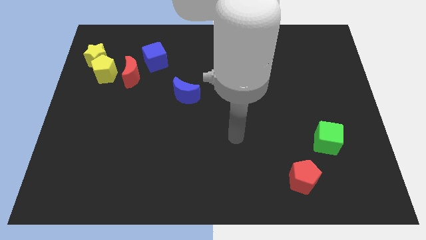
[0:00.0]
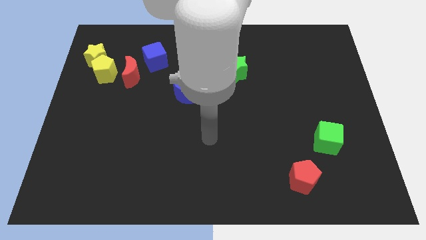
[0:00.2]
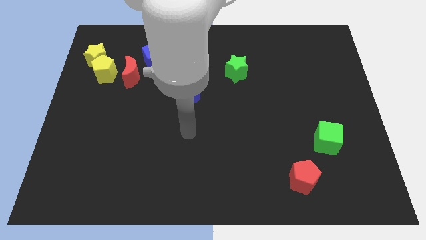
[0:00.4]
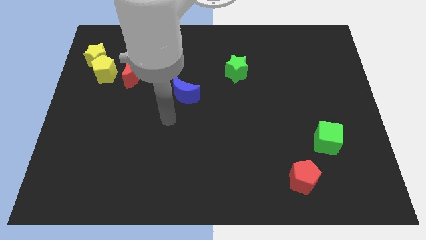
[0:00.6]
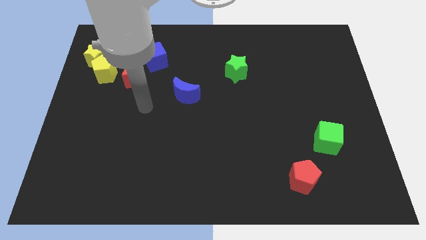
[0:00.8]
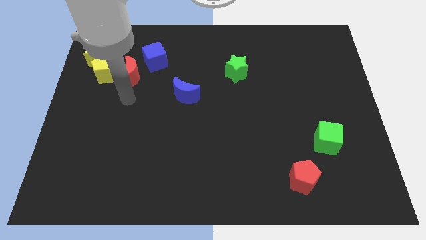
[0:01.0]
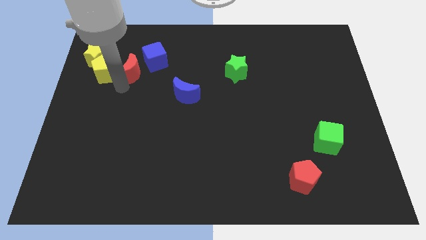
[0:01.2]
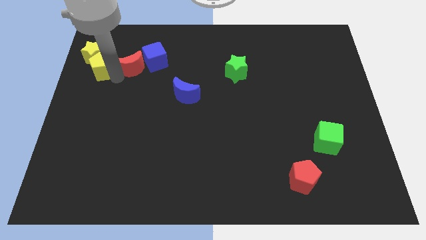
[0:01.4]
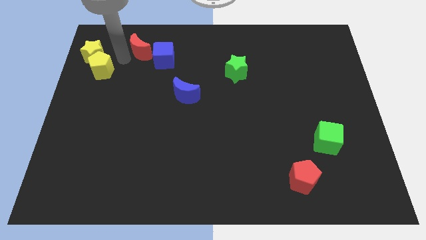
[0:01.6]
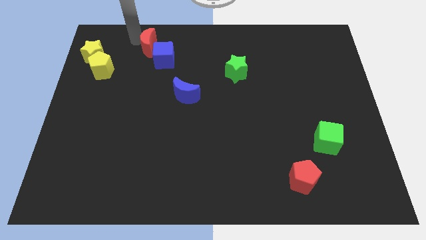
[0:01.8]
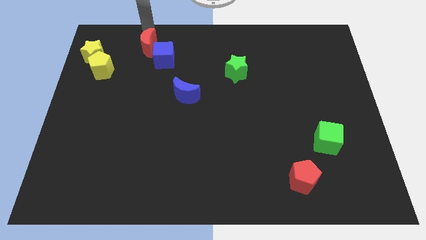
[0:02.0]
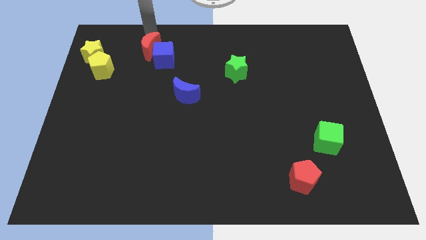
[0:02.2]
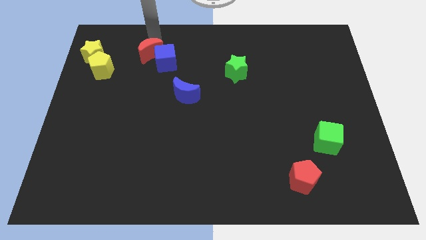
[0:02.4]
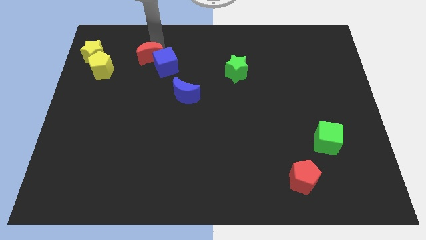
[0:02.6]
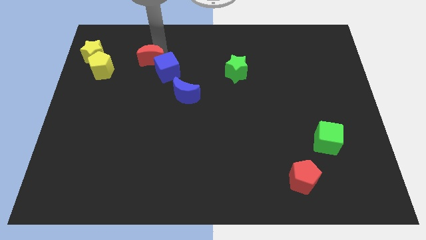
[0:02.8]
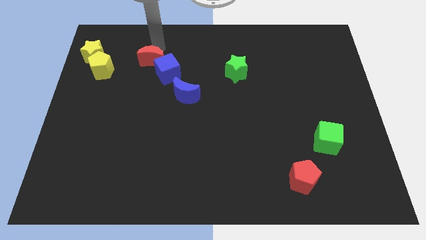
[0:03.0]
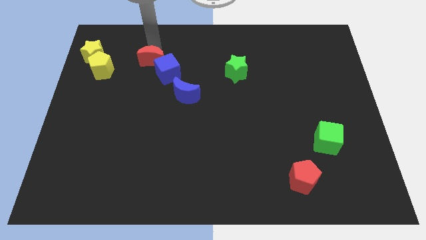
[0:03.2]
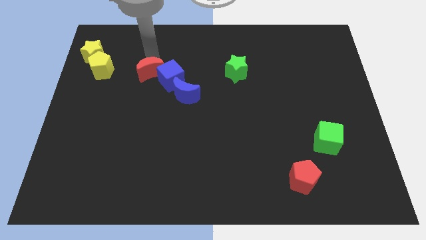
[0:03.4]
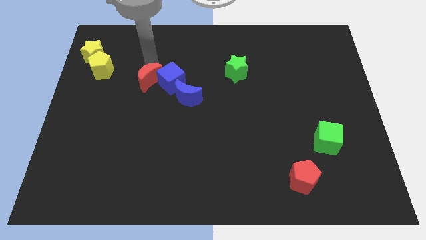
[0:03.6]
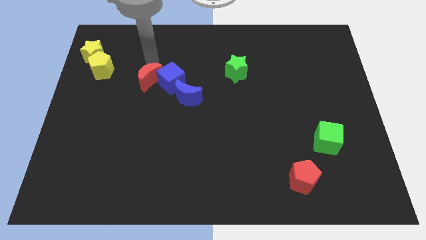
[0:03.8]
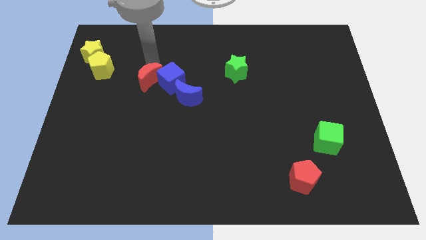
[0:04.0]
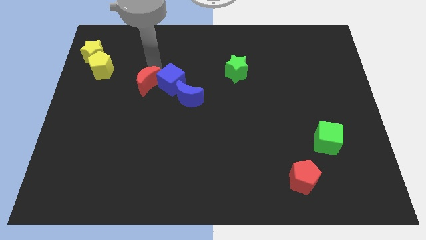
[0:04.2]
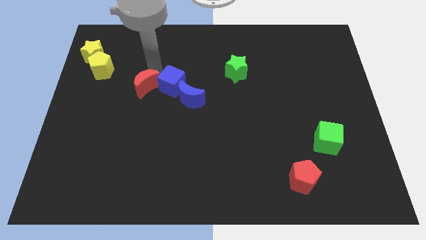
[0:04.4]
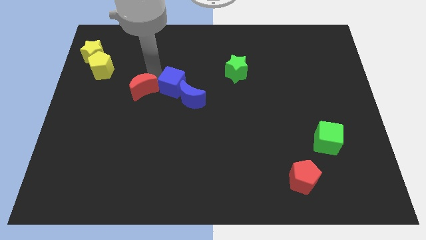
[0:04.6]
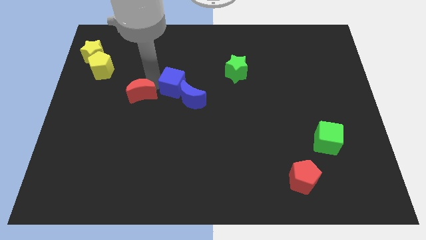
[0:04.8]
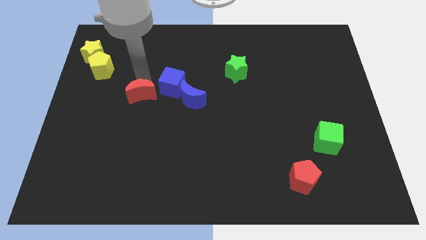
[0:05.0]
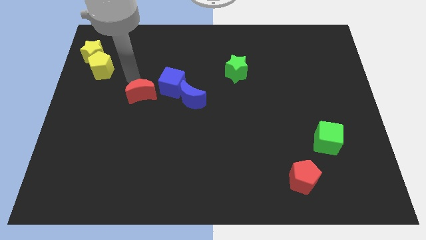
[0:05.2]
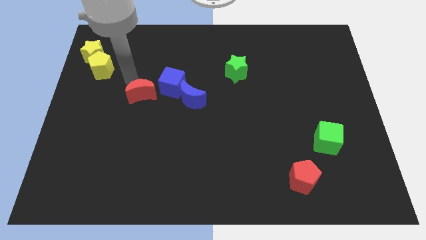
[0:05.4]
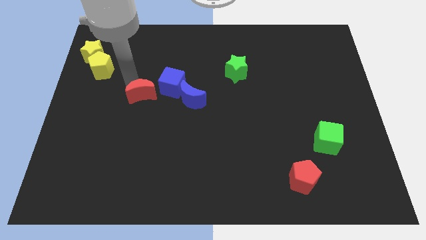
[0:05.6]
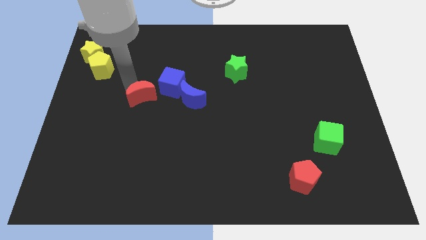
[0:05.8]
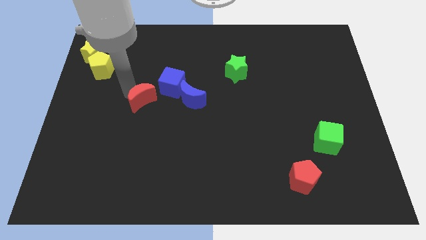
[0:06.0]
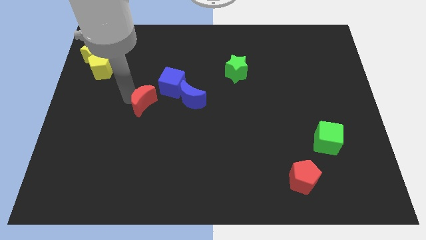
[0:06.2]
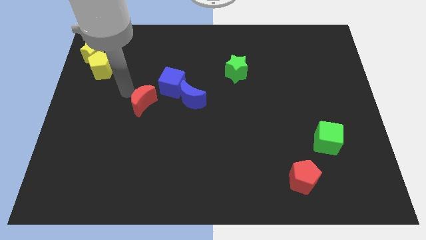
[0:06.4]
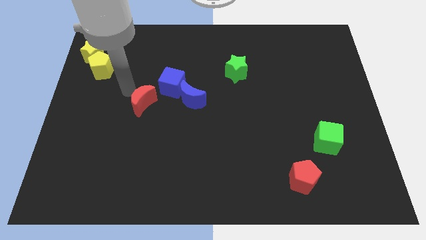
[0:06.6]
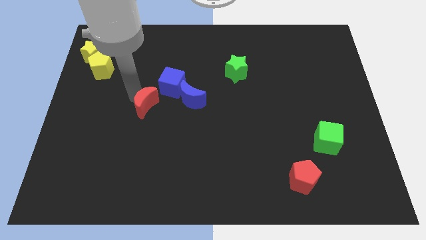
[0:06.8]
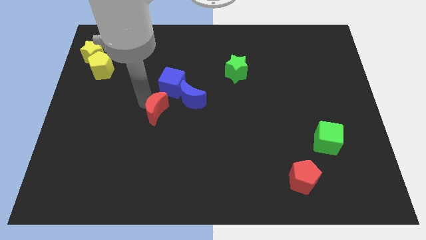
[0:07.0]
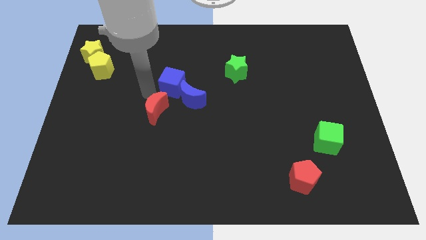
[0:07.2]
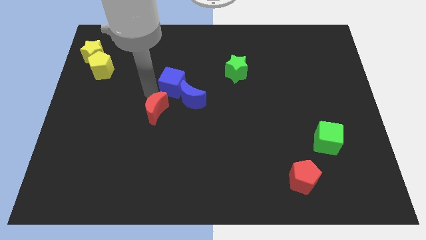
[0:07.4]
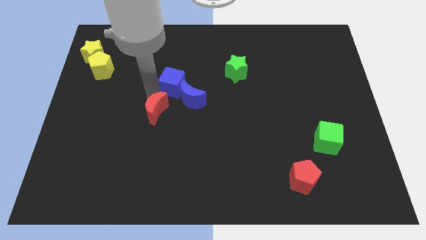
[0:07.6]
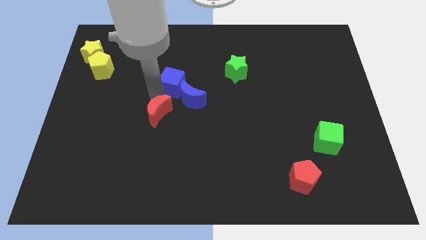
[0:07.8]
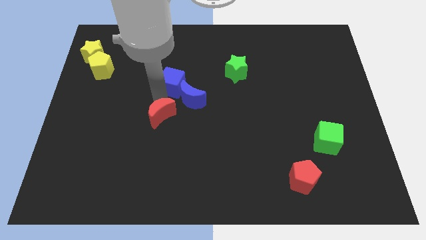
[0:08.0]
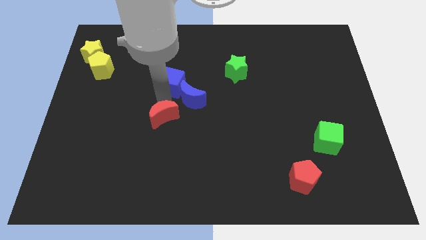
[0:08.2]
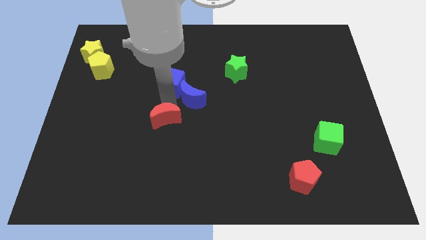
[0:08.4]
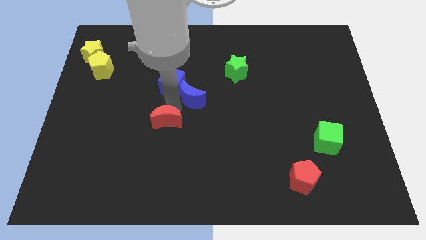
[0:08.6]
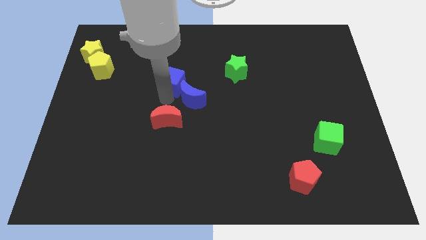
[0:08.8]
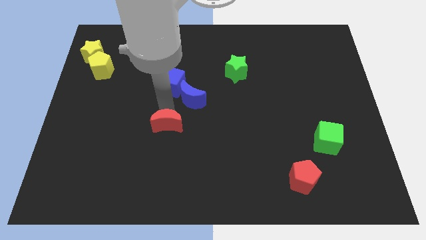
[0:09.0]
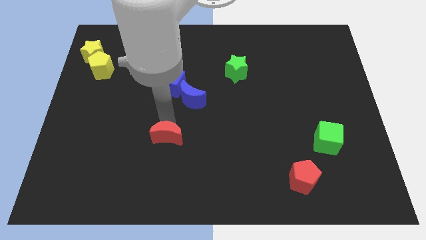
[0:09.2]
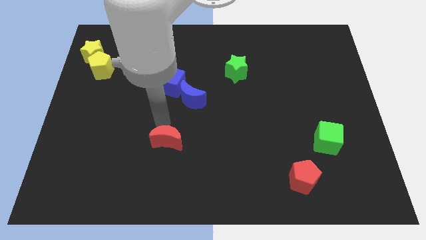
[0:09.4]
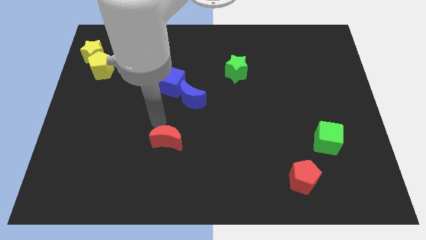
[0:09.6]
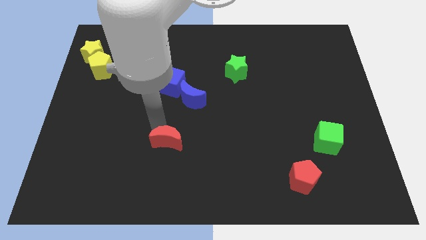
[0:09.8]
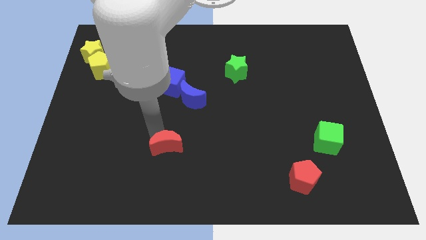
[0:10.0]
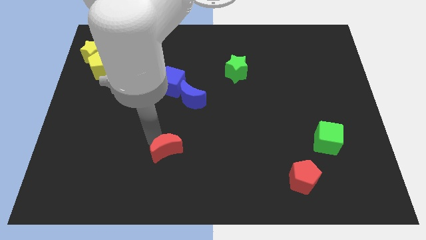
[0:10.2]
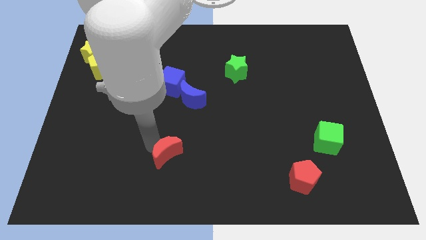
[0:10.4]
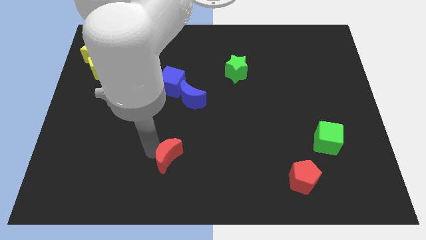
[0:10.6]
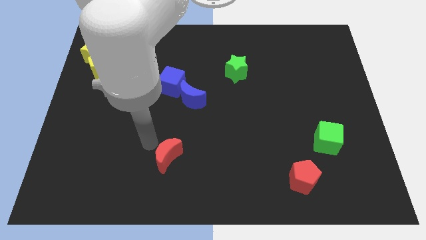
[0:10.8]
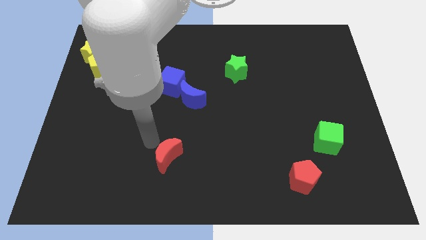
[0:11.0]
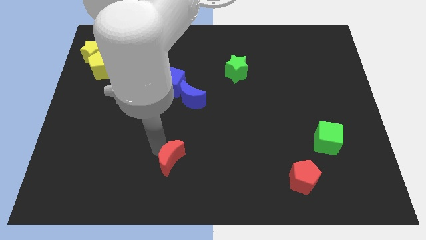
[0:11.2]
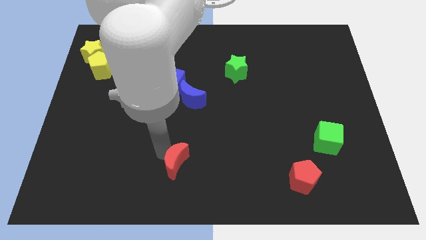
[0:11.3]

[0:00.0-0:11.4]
push the red moon to the bottom side

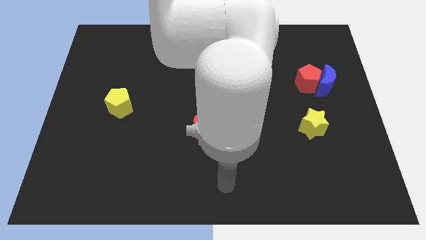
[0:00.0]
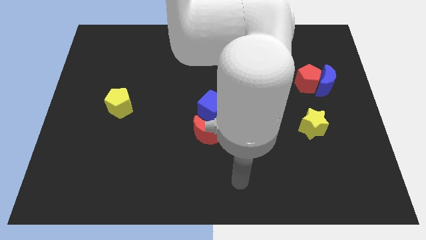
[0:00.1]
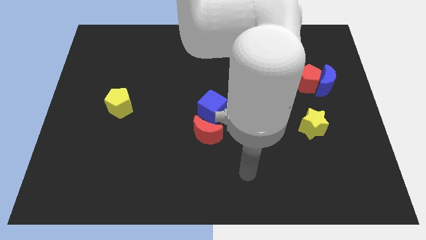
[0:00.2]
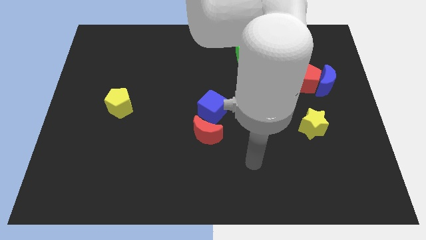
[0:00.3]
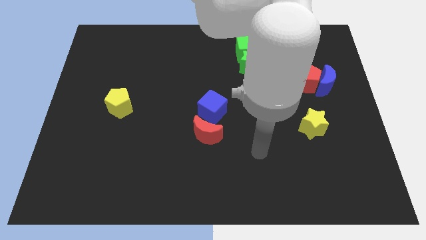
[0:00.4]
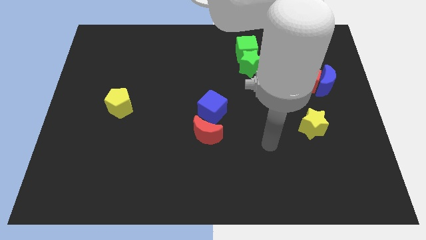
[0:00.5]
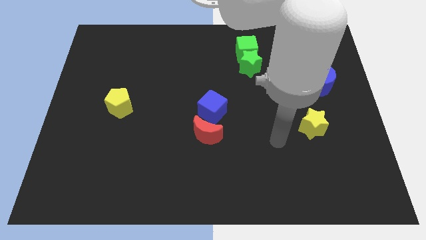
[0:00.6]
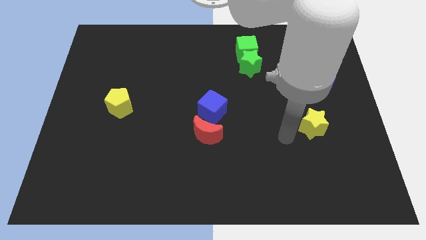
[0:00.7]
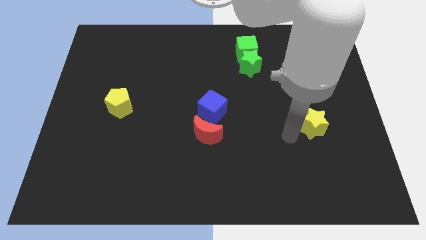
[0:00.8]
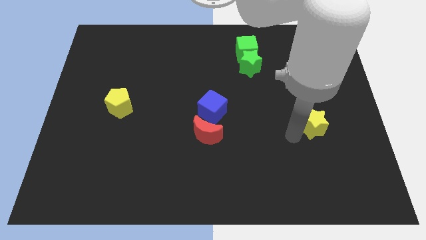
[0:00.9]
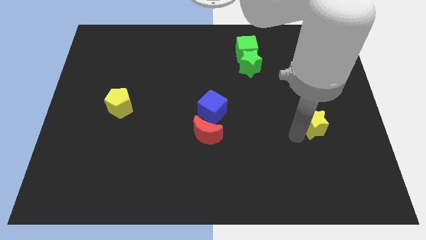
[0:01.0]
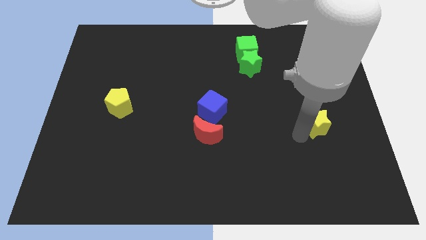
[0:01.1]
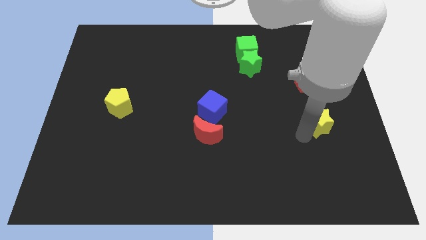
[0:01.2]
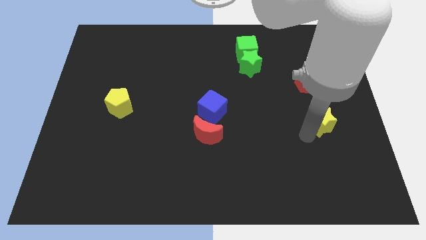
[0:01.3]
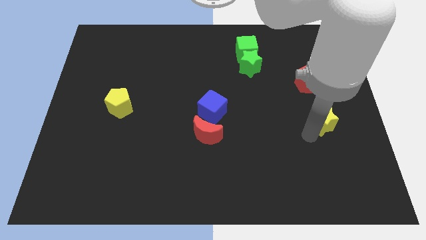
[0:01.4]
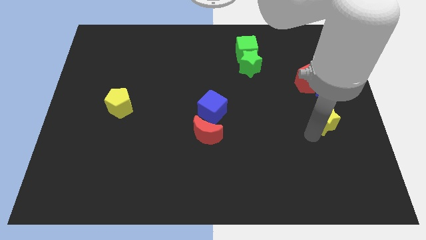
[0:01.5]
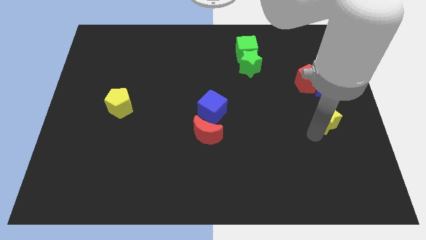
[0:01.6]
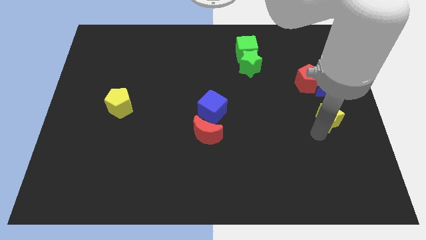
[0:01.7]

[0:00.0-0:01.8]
put the yellow star to the right side

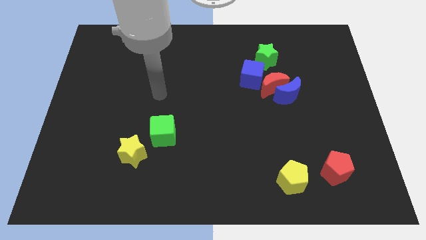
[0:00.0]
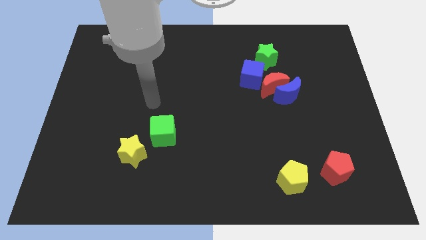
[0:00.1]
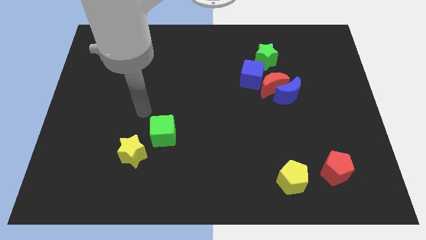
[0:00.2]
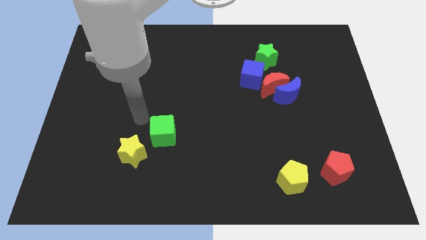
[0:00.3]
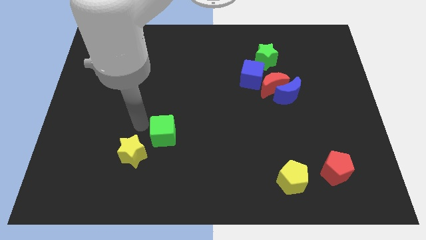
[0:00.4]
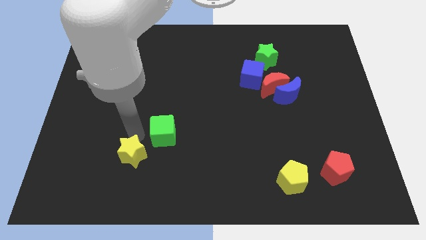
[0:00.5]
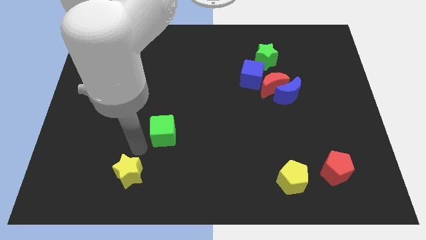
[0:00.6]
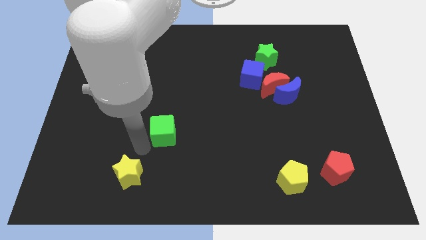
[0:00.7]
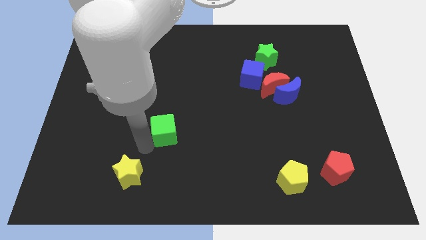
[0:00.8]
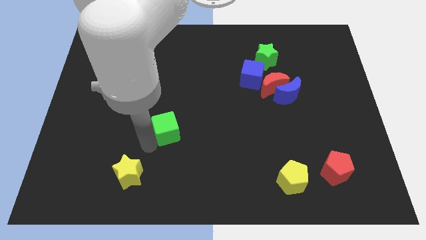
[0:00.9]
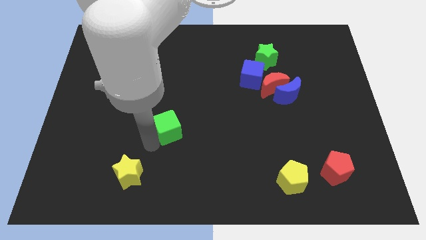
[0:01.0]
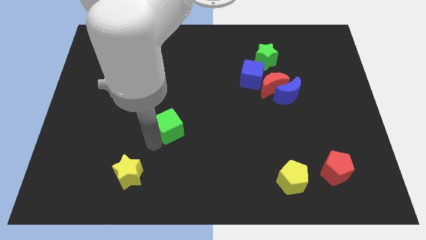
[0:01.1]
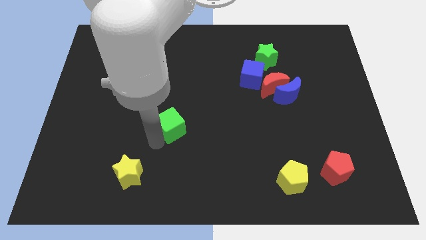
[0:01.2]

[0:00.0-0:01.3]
move the green cube to the center of the board
